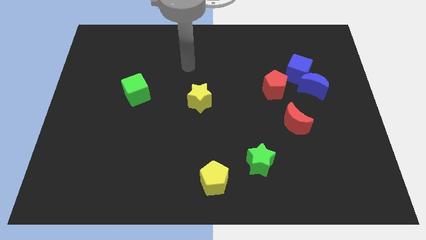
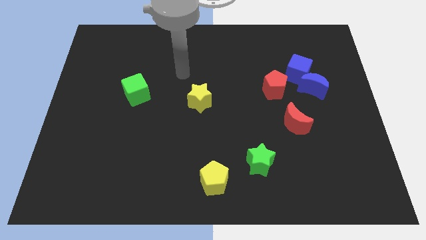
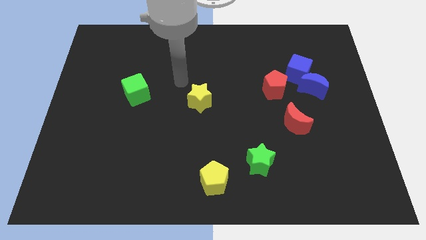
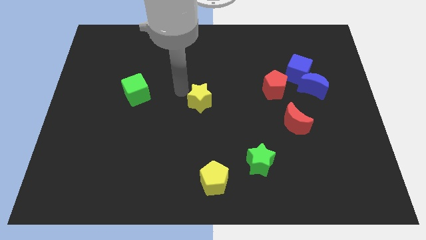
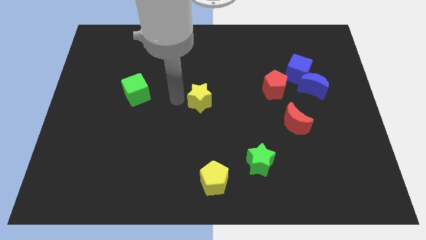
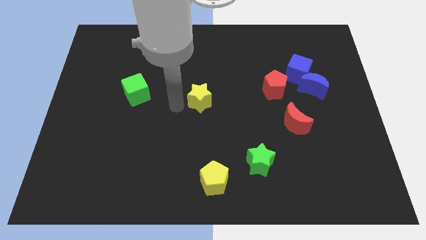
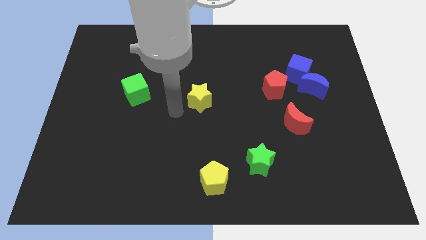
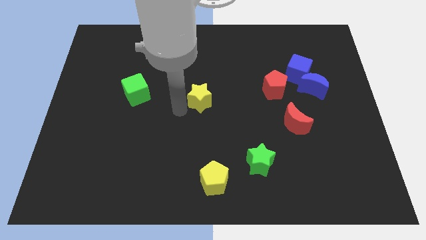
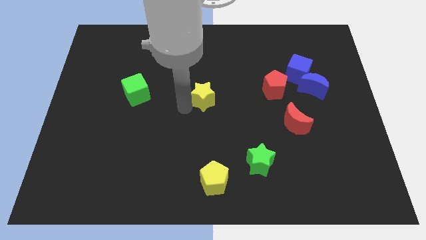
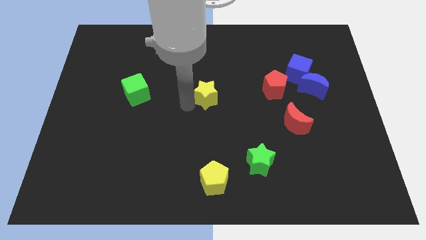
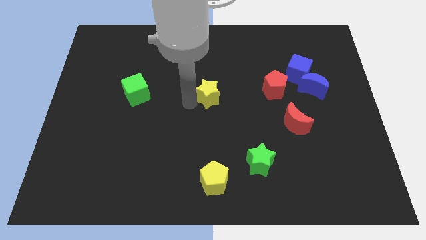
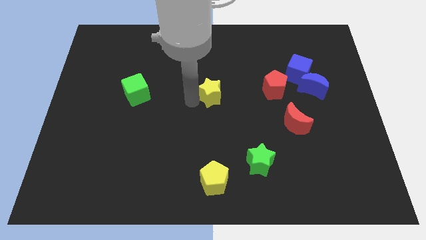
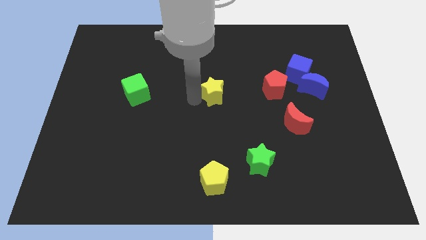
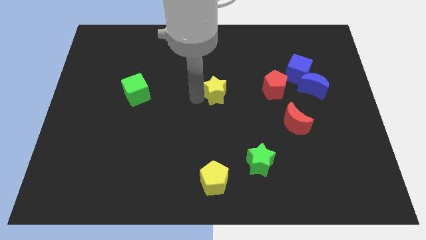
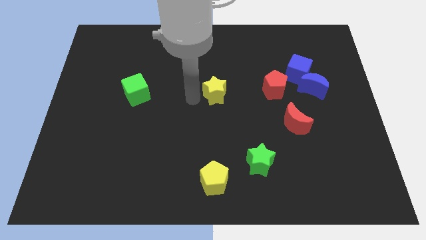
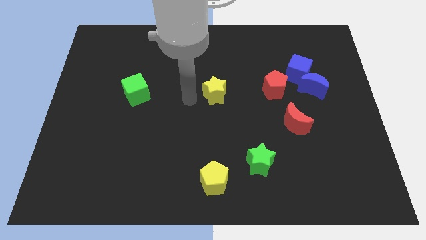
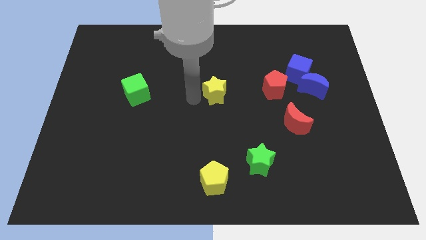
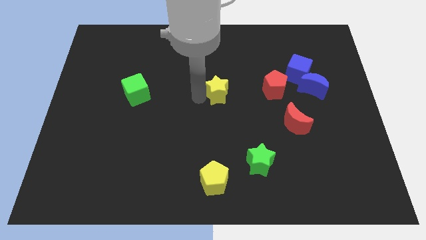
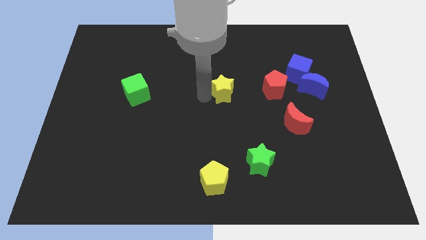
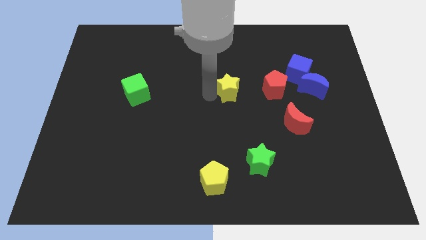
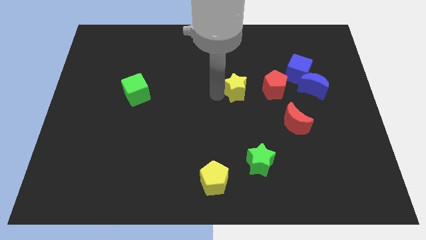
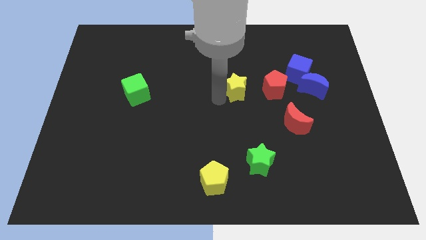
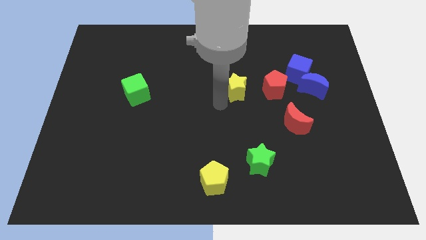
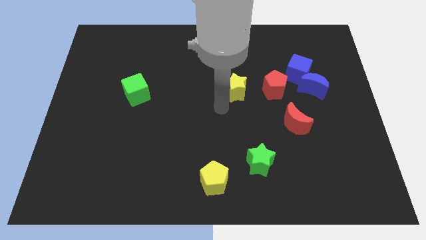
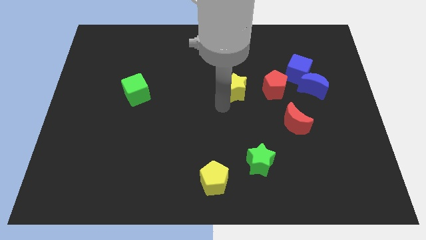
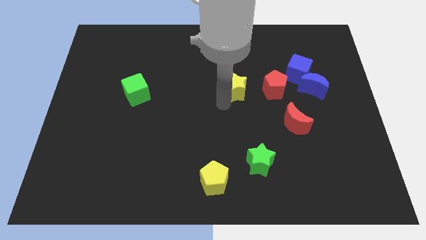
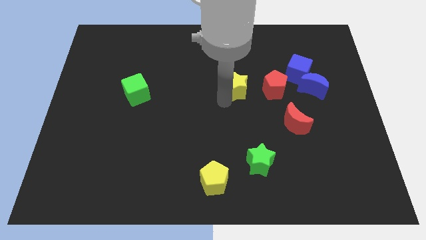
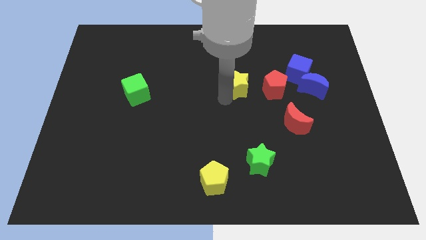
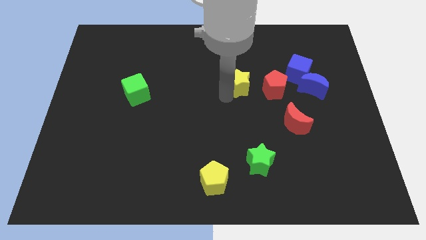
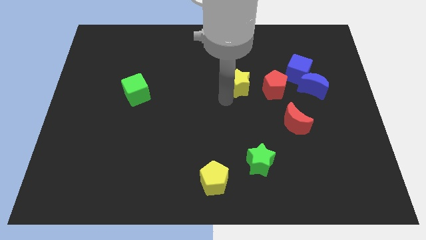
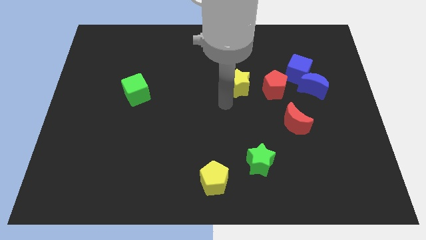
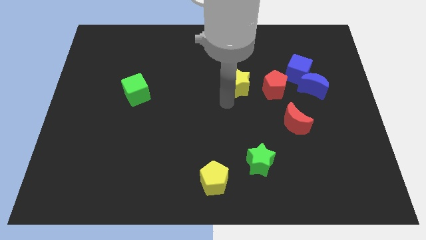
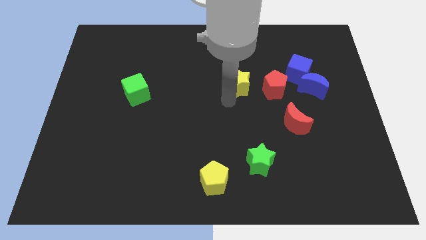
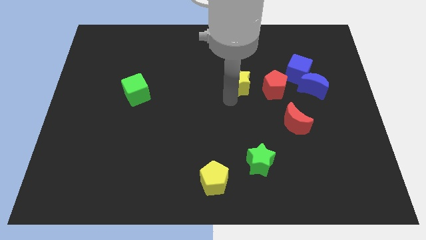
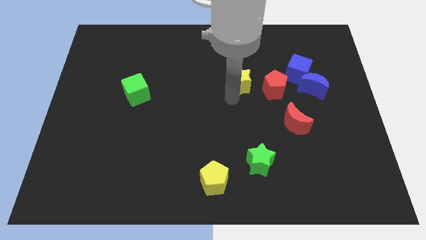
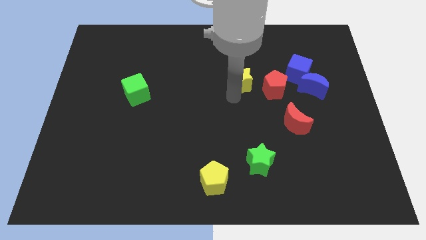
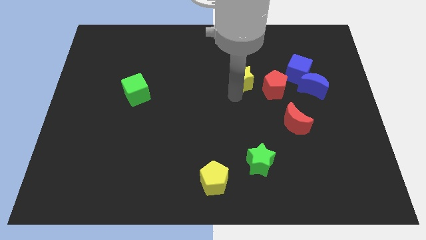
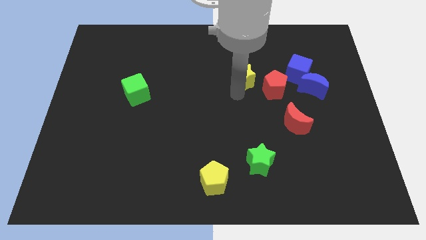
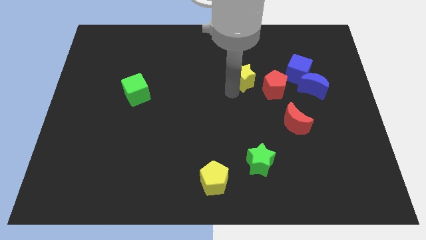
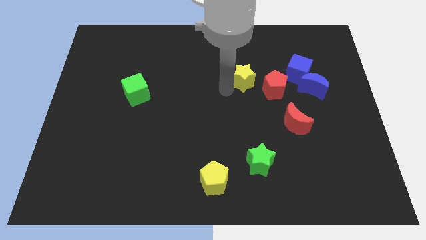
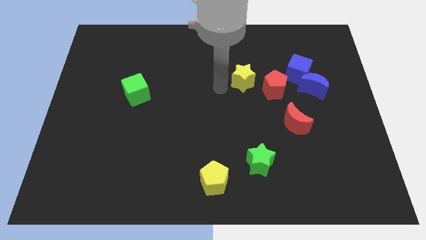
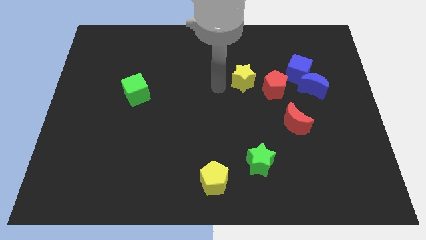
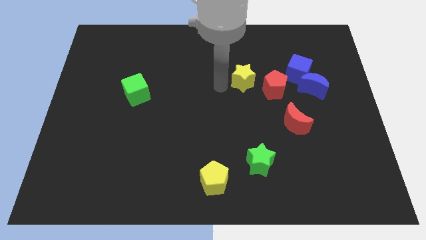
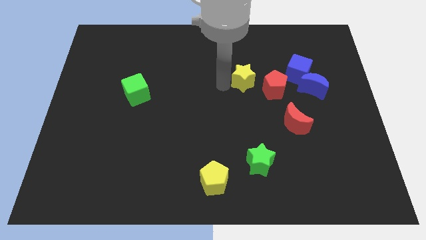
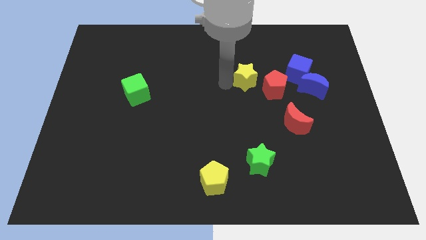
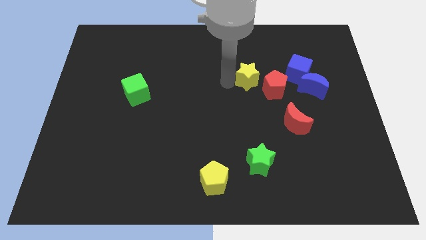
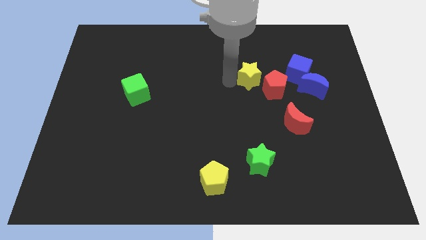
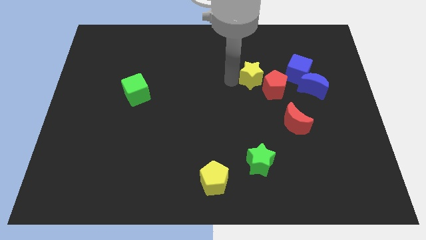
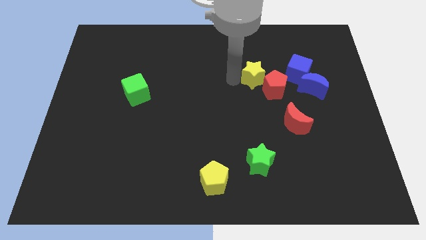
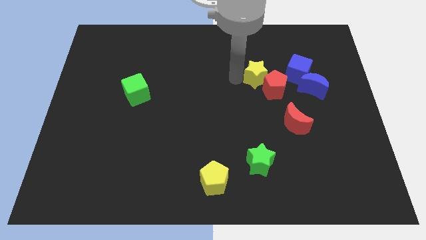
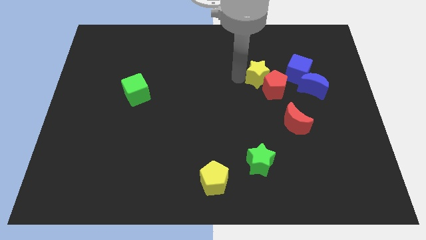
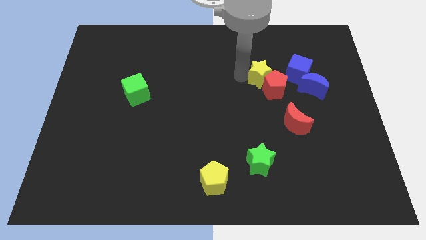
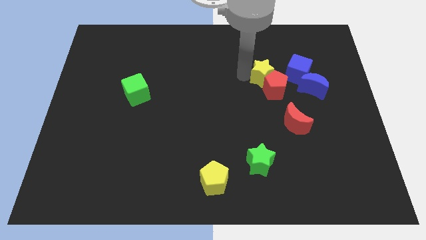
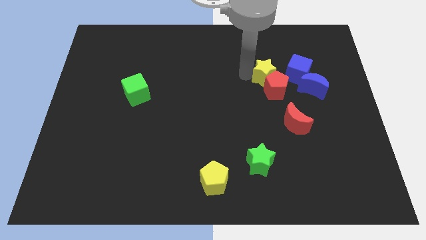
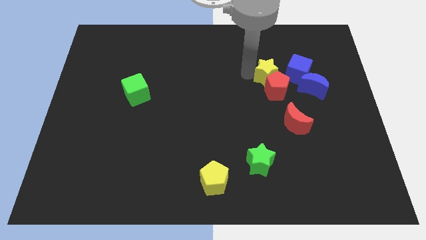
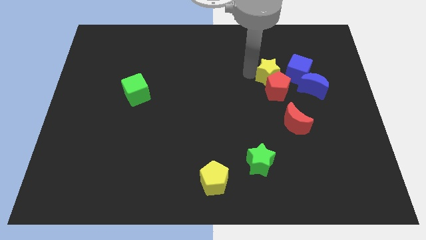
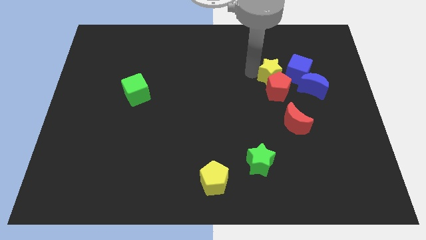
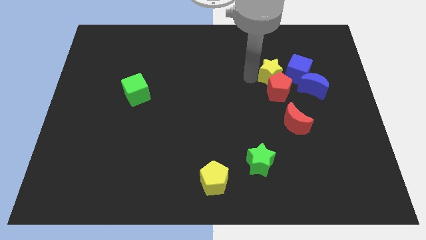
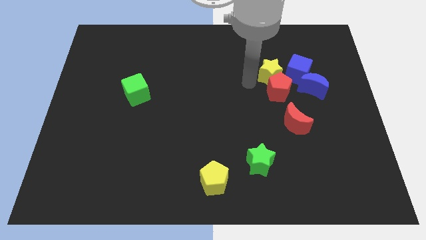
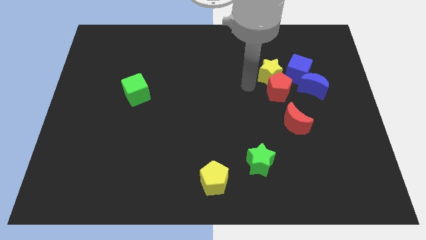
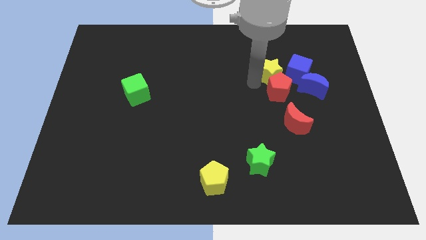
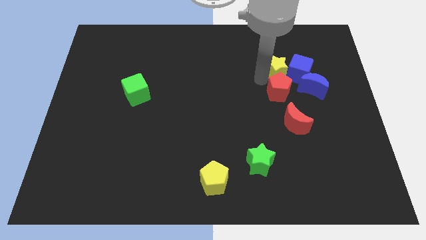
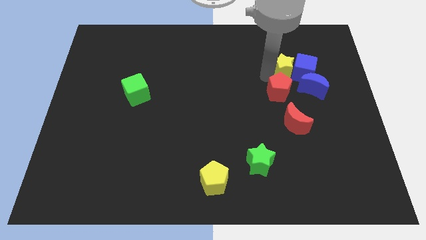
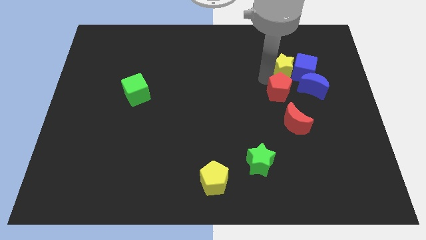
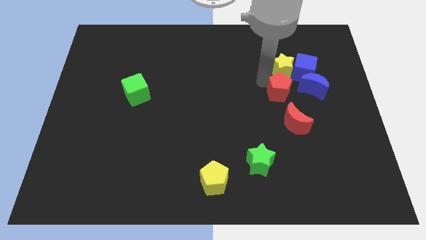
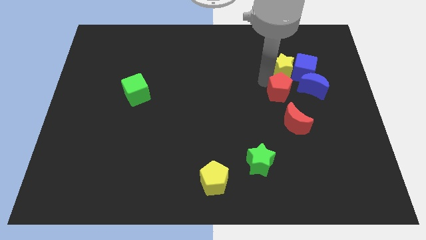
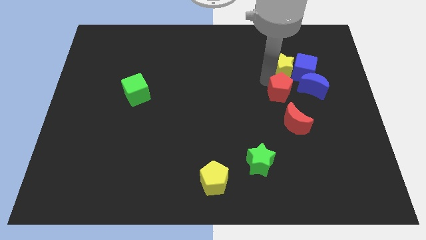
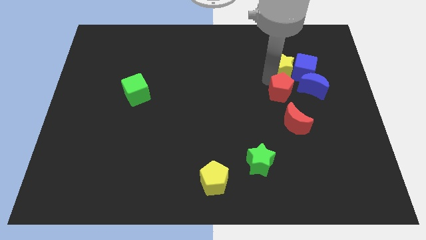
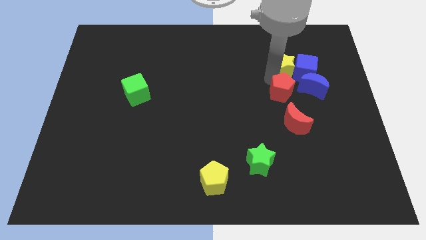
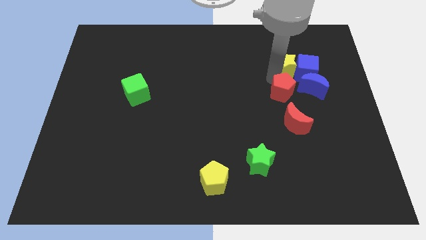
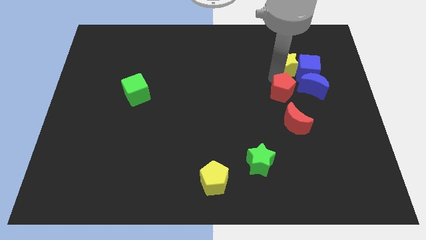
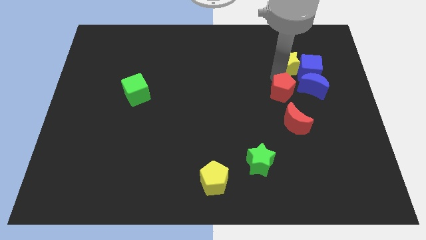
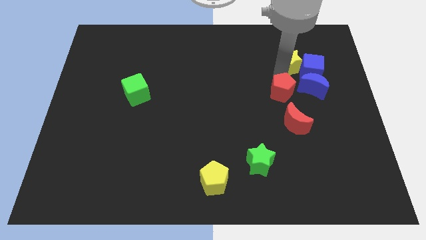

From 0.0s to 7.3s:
push the yellow star to the top of the blue moon
